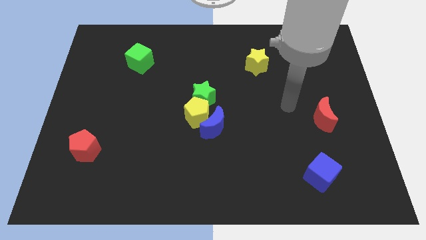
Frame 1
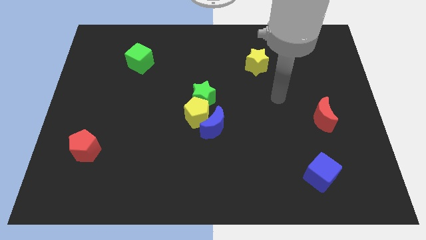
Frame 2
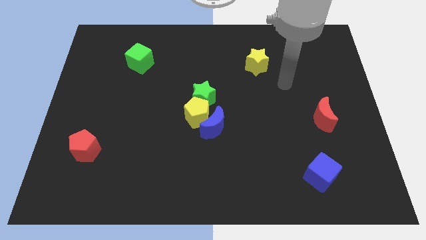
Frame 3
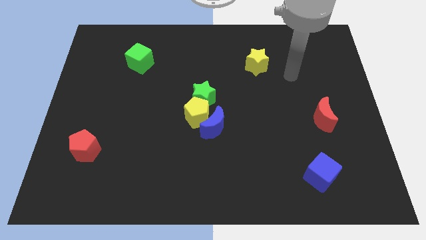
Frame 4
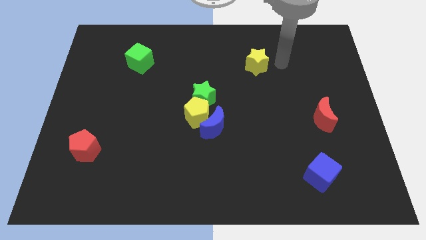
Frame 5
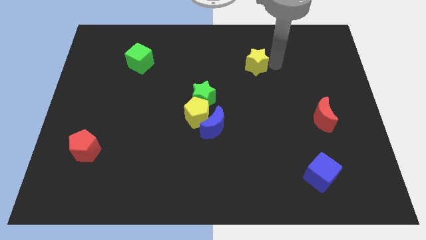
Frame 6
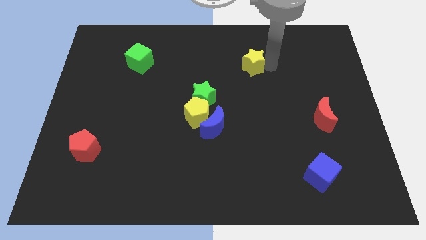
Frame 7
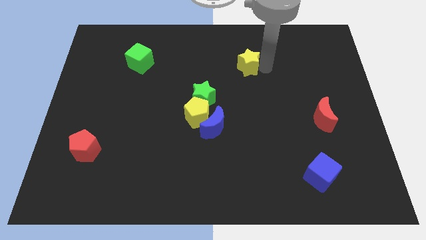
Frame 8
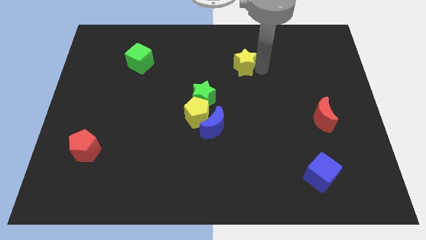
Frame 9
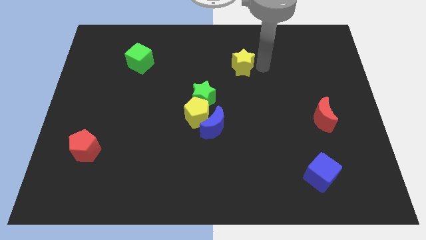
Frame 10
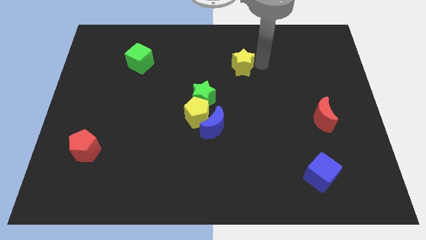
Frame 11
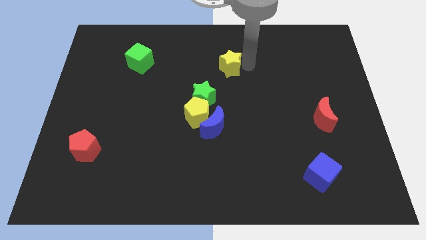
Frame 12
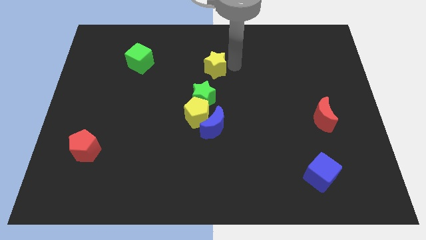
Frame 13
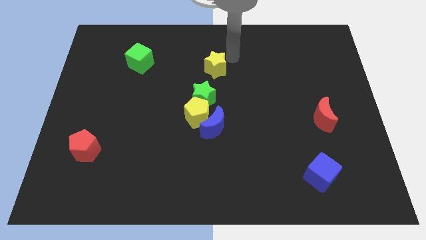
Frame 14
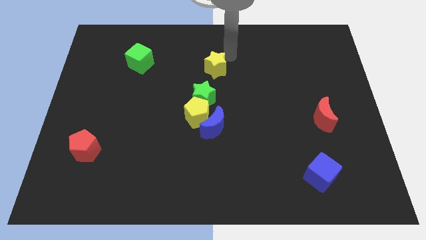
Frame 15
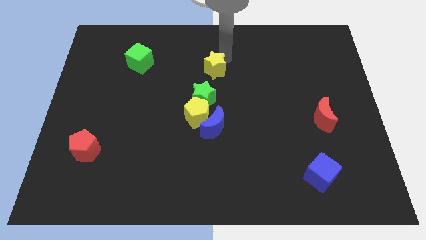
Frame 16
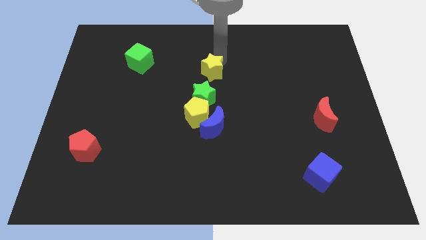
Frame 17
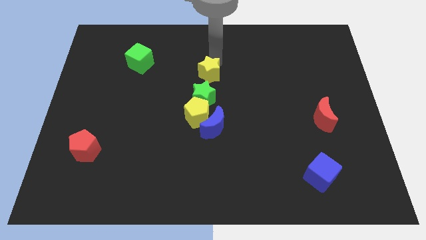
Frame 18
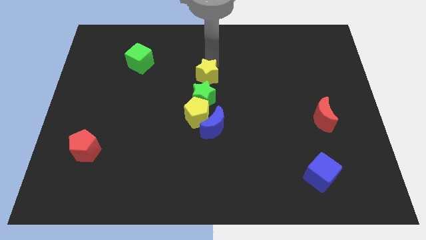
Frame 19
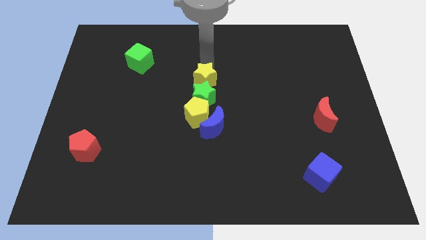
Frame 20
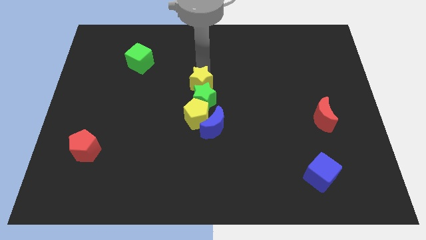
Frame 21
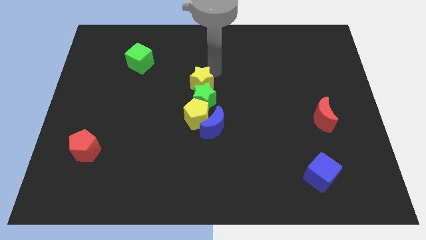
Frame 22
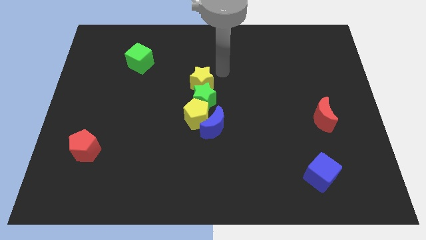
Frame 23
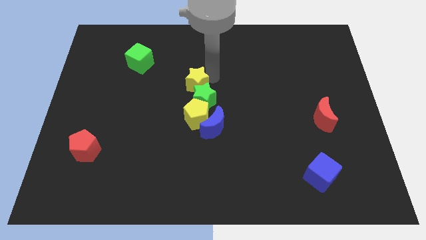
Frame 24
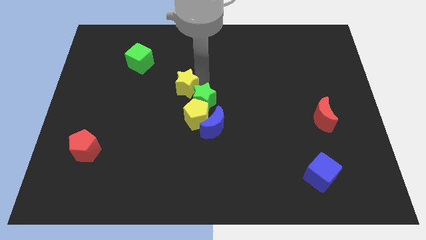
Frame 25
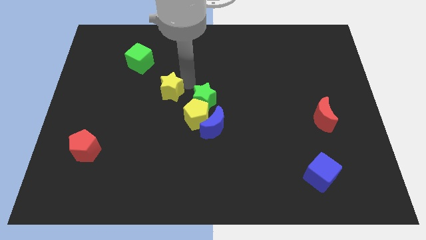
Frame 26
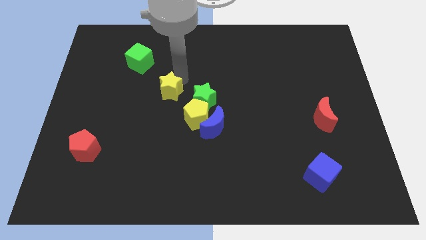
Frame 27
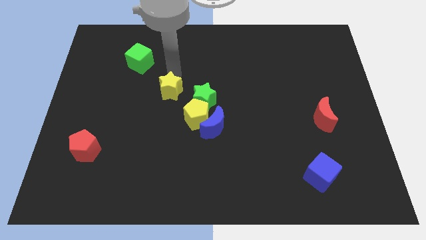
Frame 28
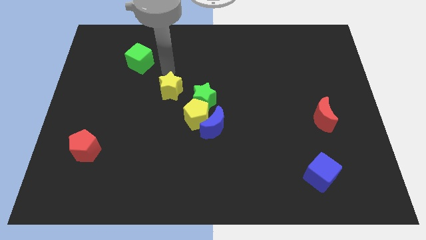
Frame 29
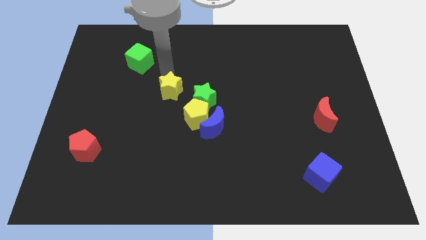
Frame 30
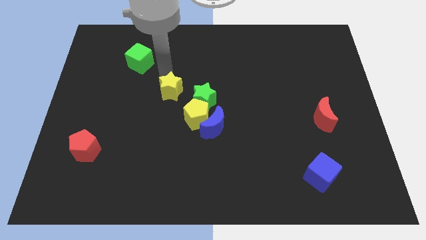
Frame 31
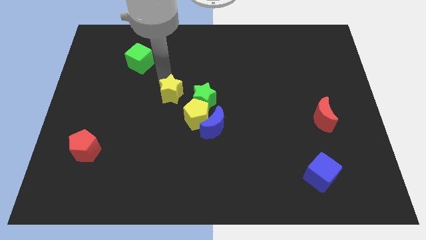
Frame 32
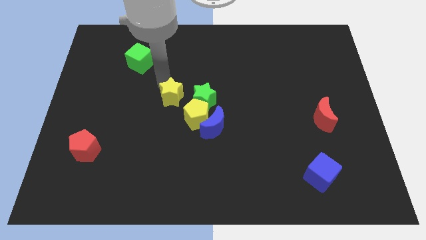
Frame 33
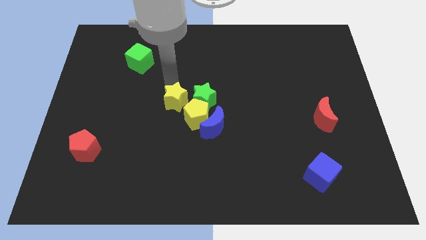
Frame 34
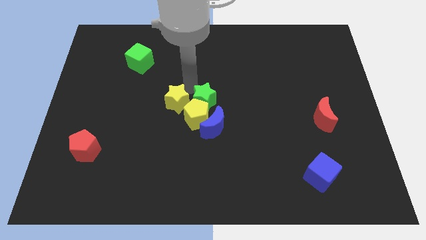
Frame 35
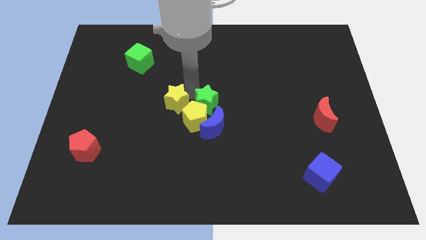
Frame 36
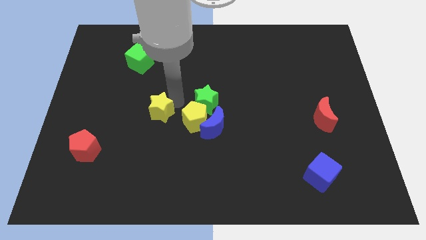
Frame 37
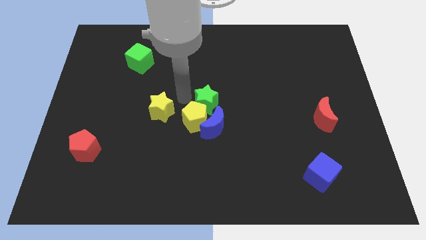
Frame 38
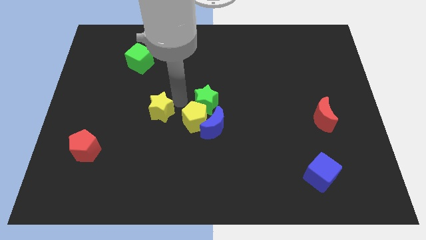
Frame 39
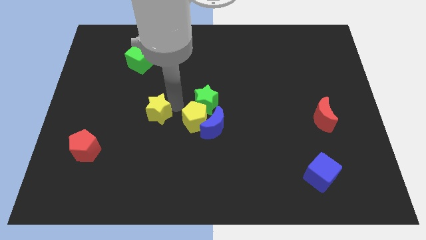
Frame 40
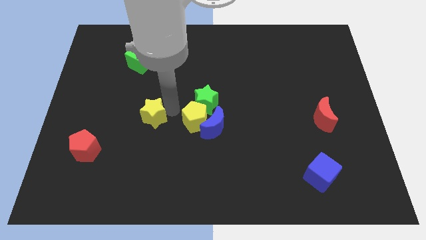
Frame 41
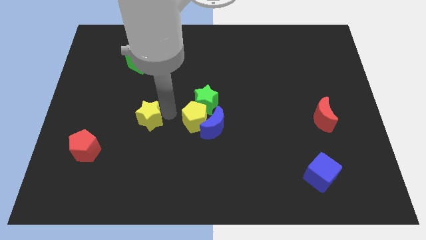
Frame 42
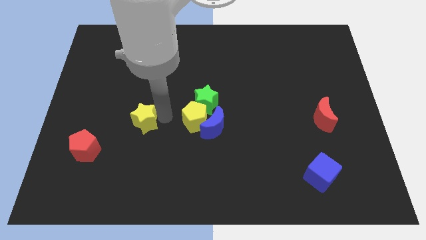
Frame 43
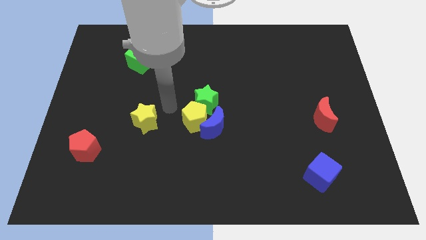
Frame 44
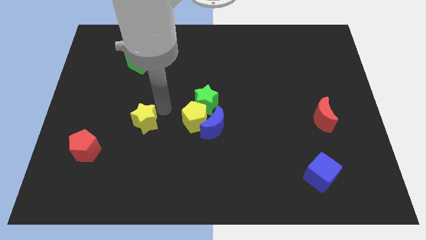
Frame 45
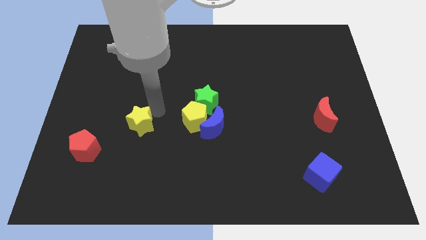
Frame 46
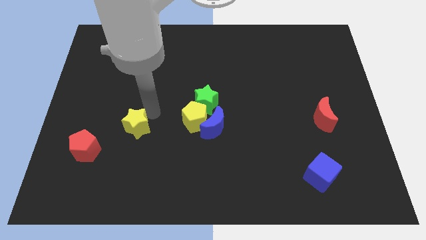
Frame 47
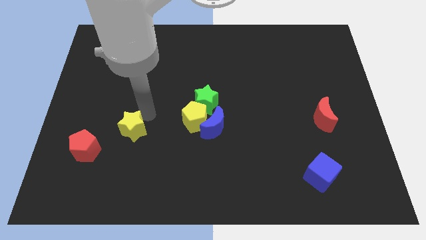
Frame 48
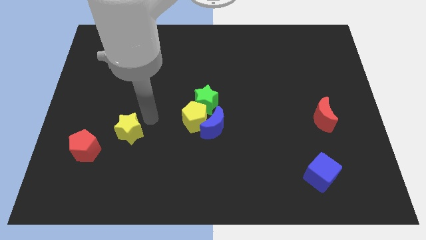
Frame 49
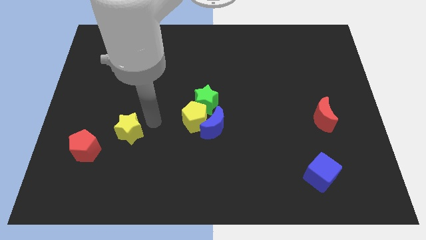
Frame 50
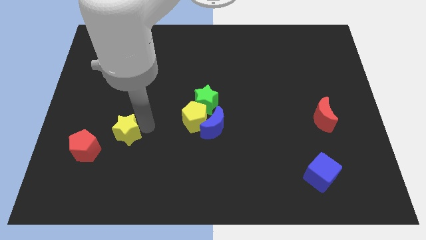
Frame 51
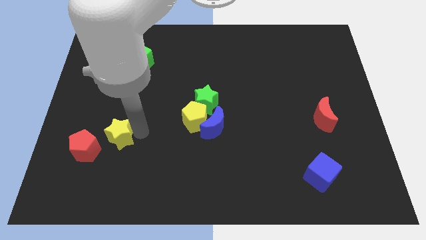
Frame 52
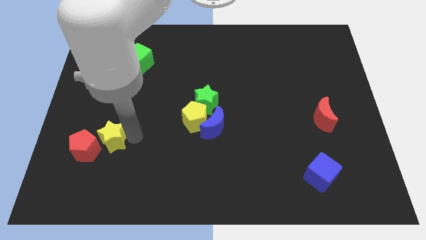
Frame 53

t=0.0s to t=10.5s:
push the yellow star next to the red pentagon
